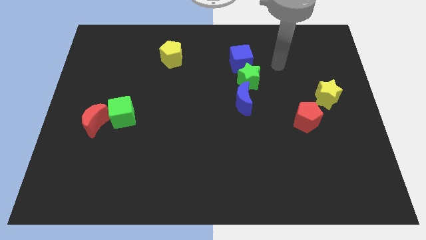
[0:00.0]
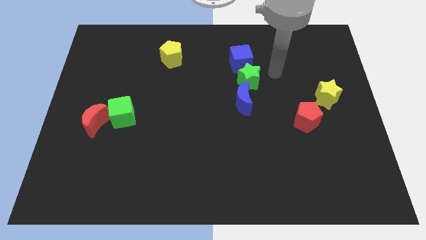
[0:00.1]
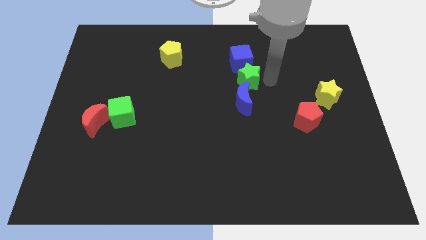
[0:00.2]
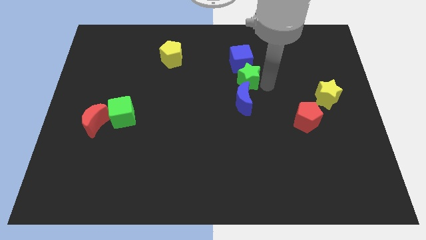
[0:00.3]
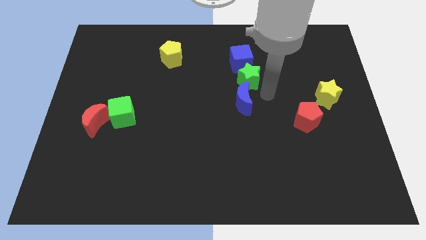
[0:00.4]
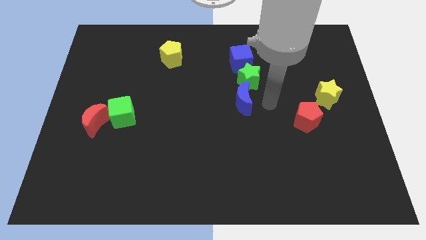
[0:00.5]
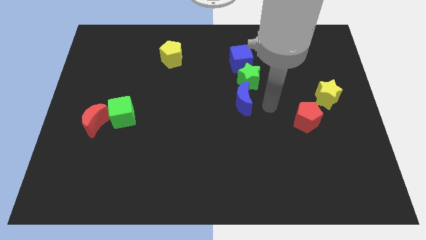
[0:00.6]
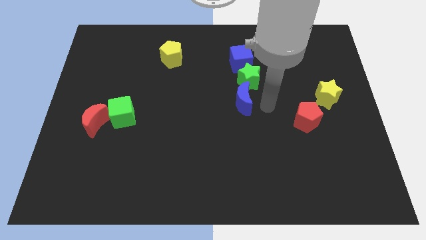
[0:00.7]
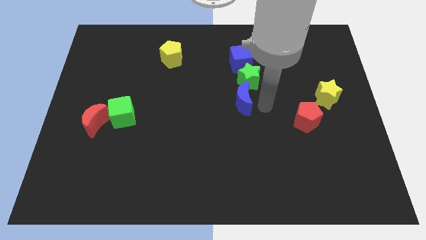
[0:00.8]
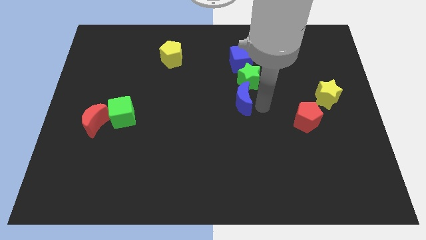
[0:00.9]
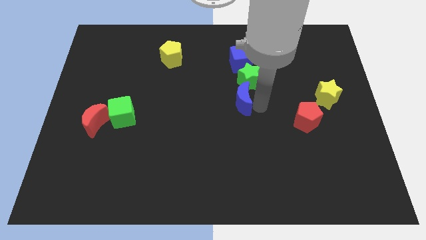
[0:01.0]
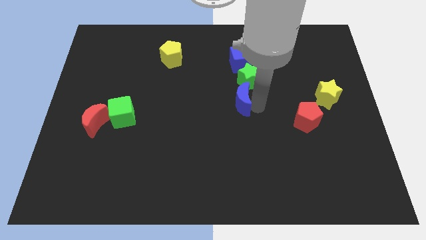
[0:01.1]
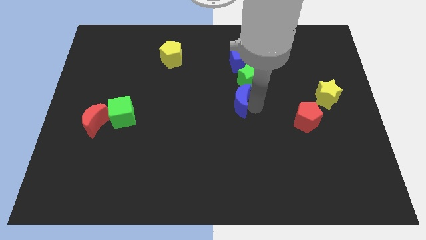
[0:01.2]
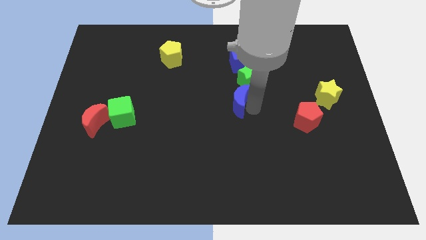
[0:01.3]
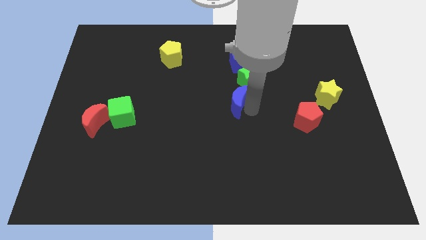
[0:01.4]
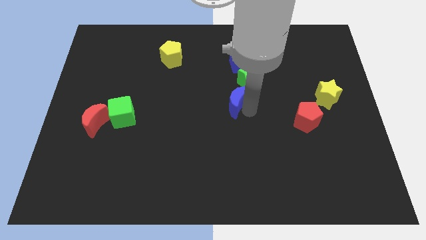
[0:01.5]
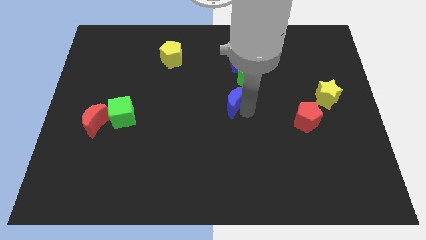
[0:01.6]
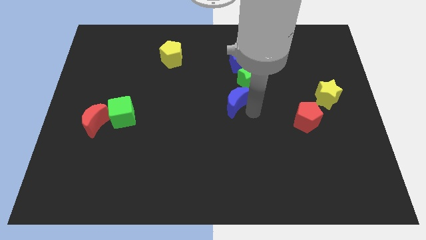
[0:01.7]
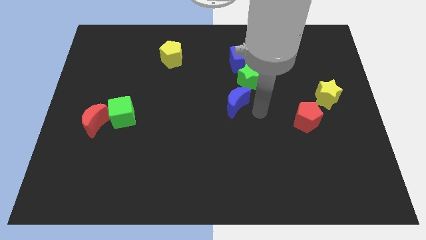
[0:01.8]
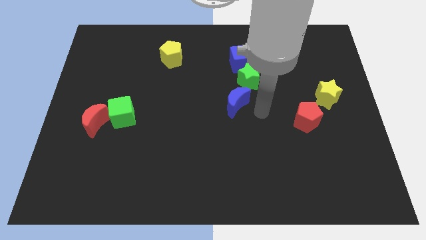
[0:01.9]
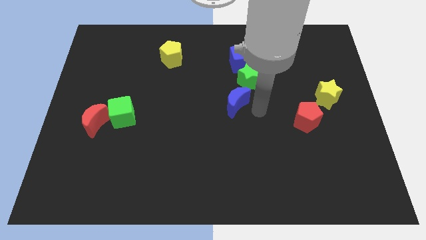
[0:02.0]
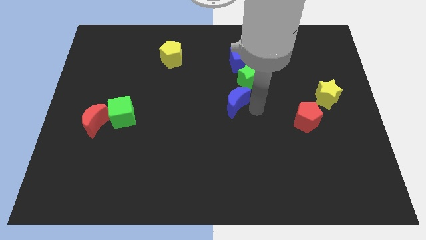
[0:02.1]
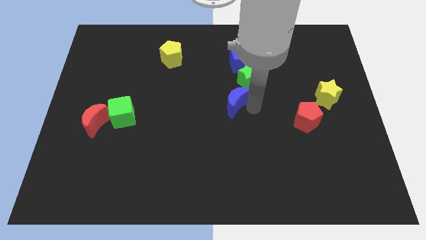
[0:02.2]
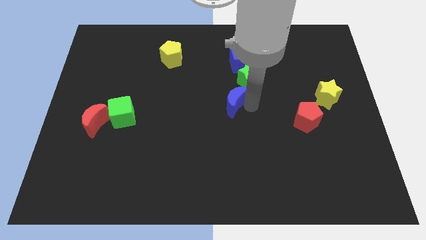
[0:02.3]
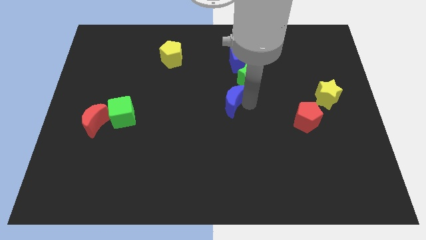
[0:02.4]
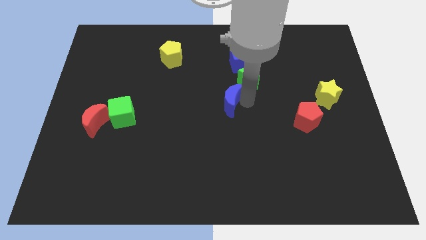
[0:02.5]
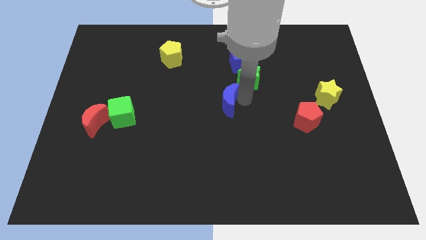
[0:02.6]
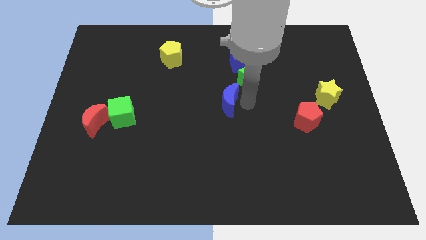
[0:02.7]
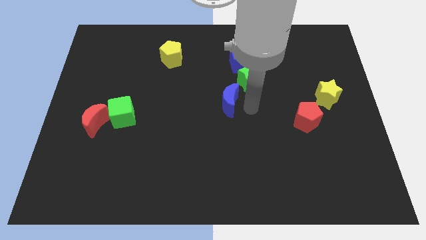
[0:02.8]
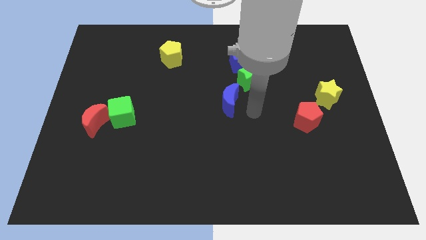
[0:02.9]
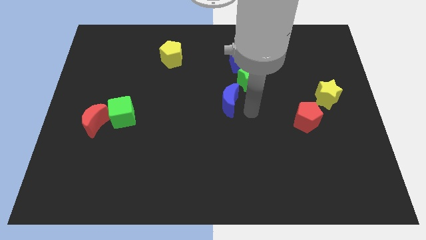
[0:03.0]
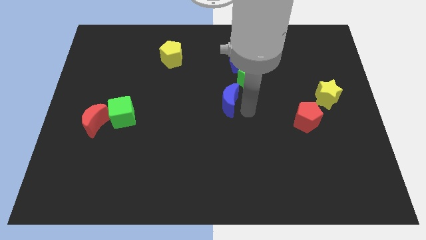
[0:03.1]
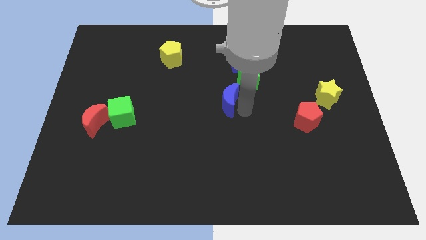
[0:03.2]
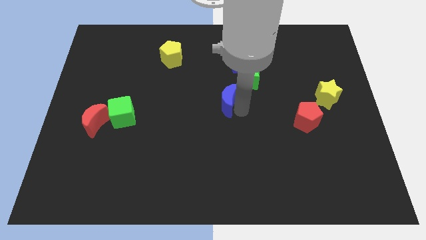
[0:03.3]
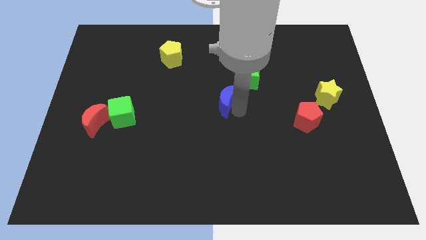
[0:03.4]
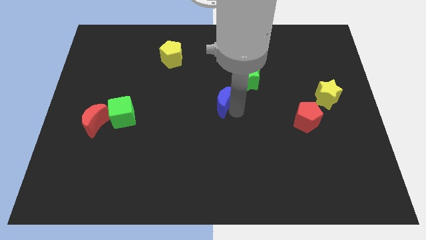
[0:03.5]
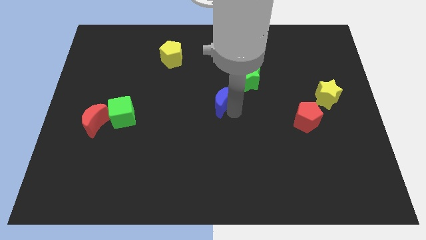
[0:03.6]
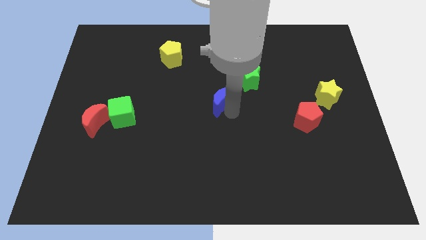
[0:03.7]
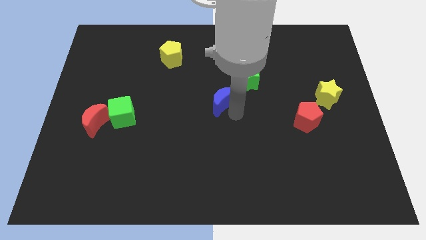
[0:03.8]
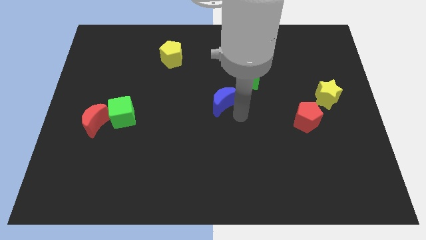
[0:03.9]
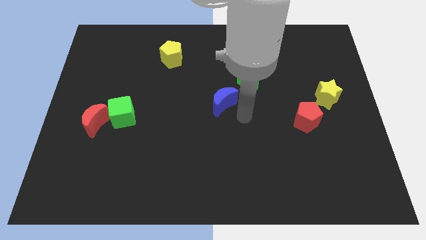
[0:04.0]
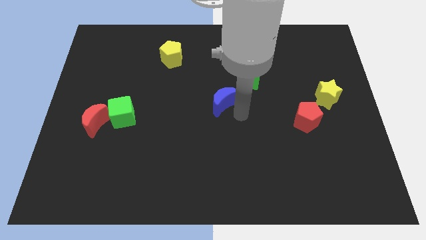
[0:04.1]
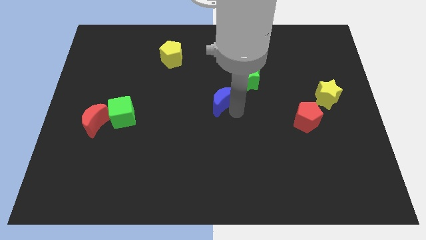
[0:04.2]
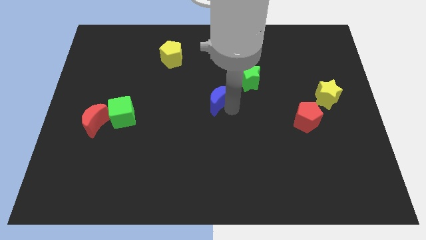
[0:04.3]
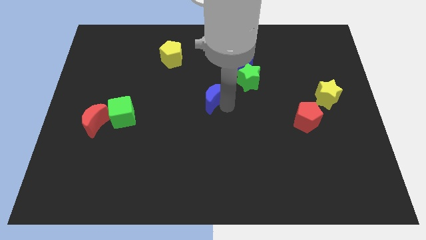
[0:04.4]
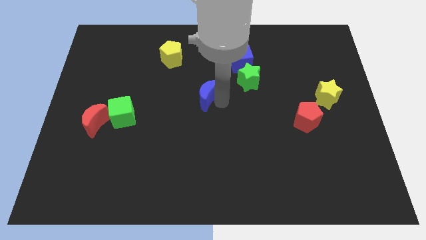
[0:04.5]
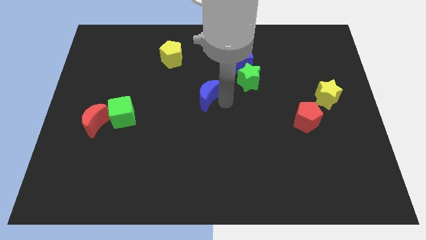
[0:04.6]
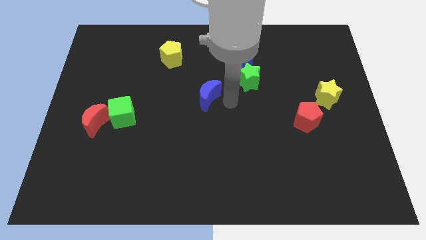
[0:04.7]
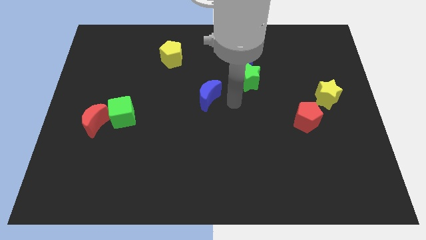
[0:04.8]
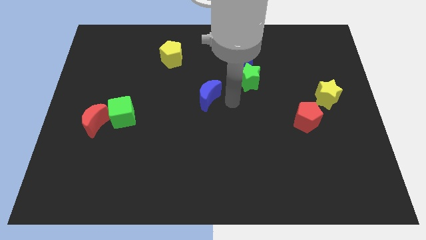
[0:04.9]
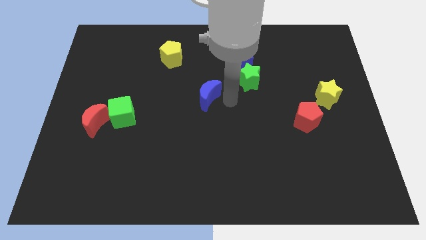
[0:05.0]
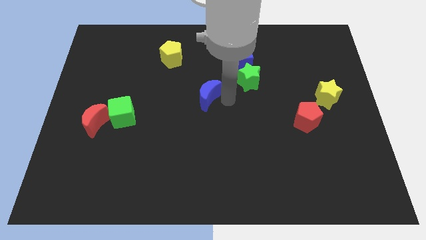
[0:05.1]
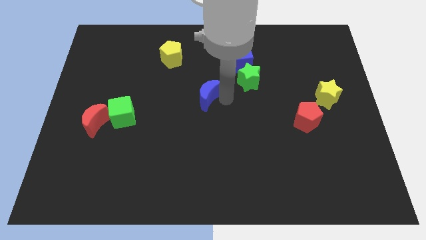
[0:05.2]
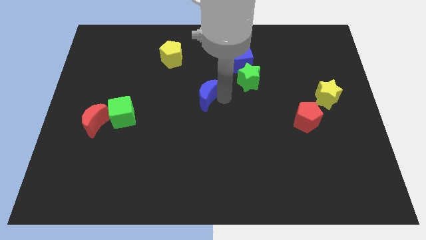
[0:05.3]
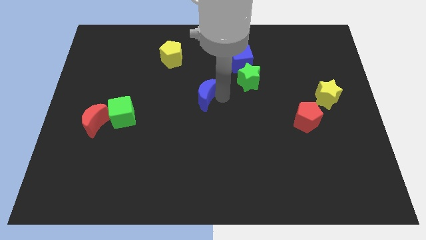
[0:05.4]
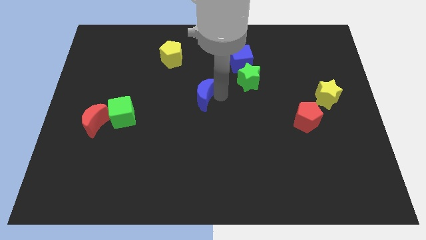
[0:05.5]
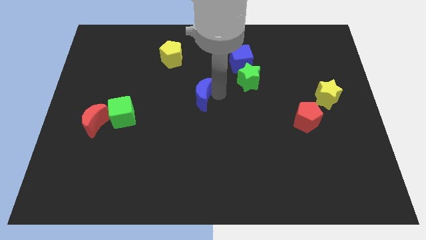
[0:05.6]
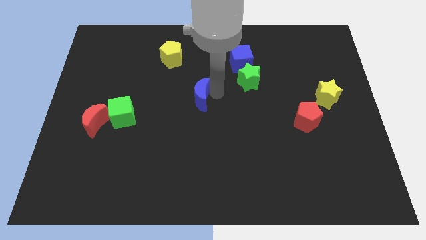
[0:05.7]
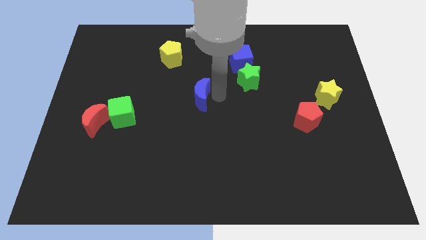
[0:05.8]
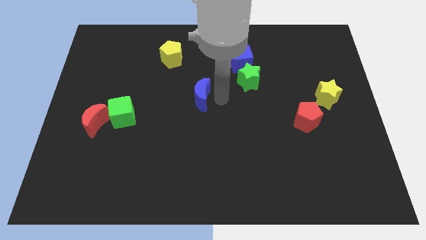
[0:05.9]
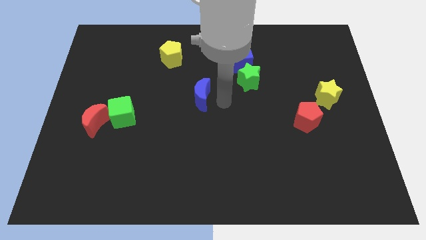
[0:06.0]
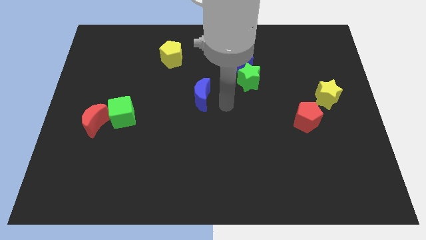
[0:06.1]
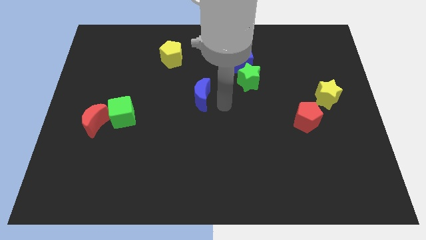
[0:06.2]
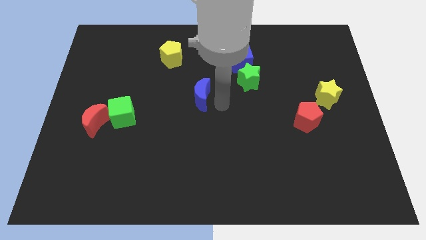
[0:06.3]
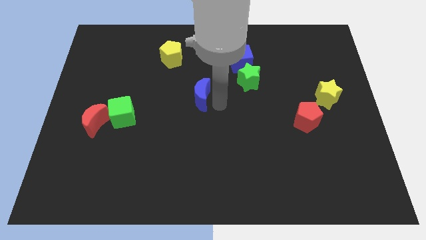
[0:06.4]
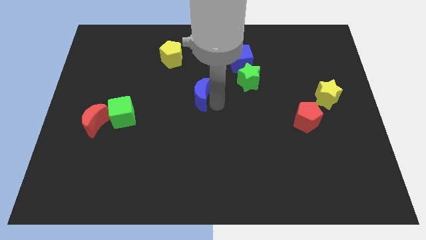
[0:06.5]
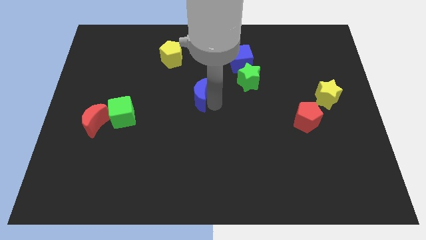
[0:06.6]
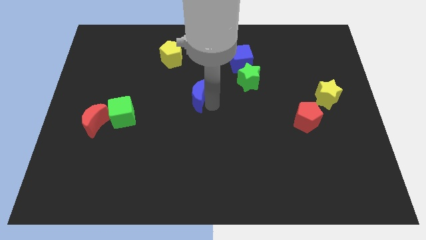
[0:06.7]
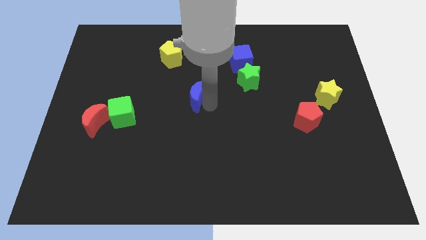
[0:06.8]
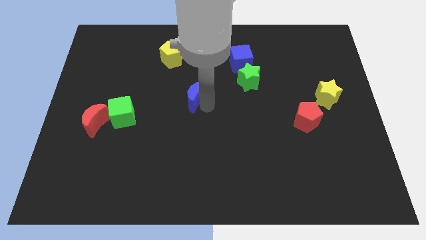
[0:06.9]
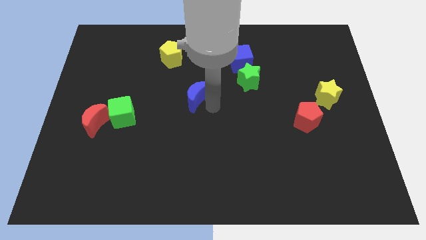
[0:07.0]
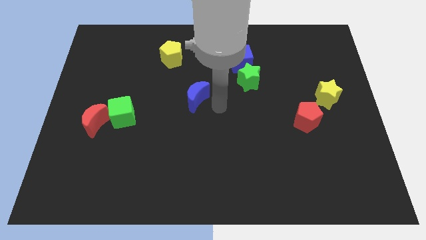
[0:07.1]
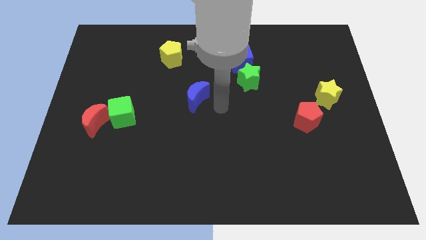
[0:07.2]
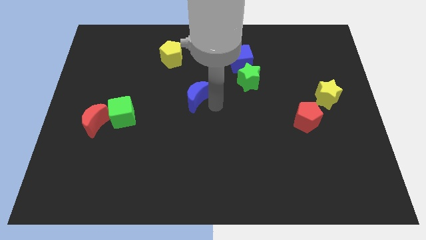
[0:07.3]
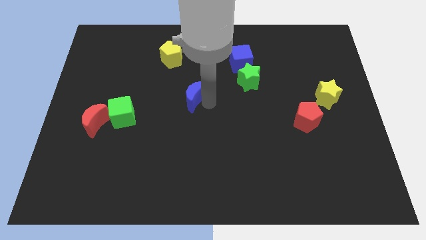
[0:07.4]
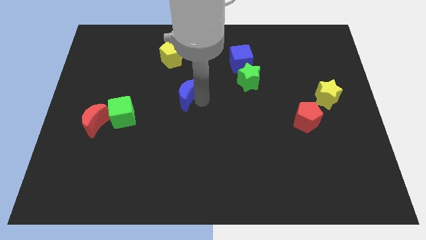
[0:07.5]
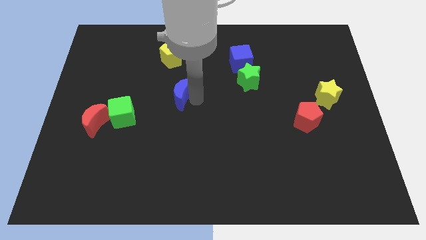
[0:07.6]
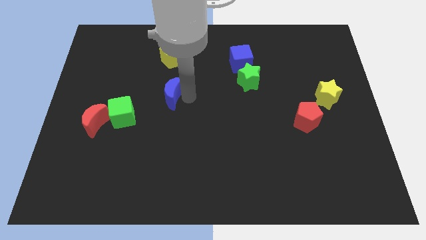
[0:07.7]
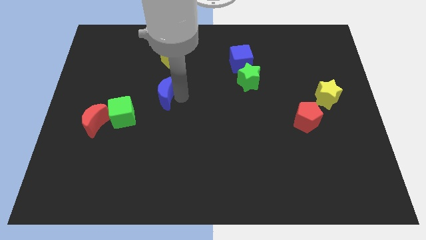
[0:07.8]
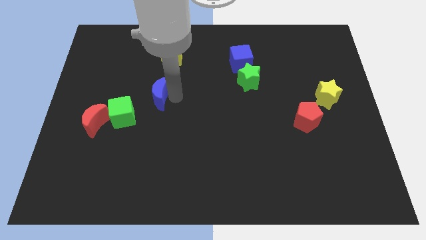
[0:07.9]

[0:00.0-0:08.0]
move the blue moon left
